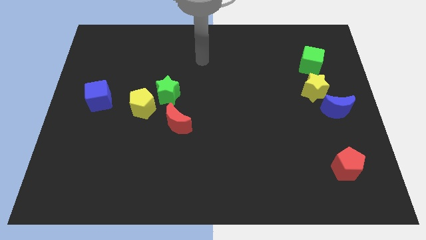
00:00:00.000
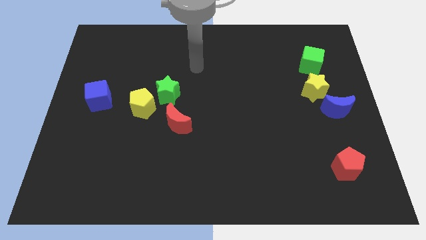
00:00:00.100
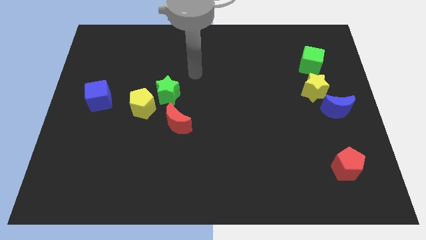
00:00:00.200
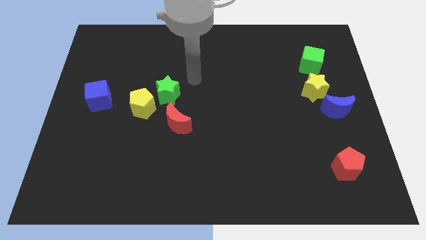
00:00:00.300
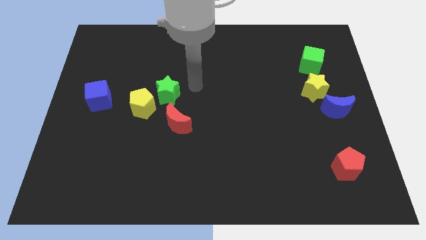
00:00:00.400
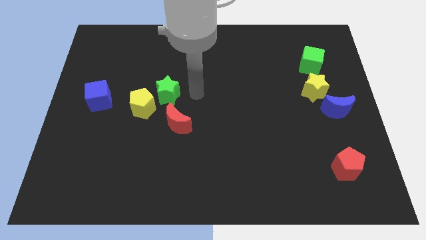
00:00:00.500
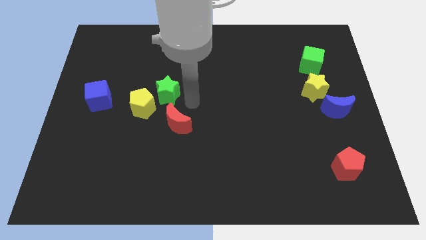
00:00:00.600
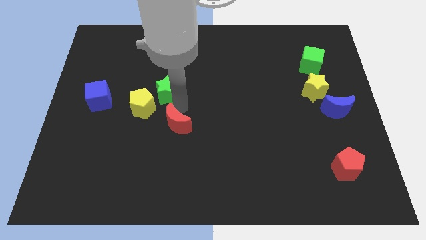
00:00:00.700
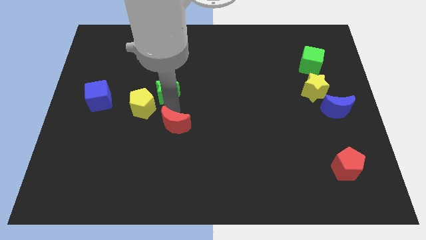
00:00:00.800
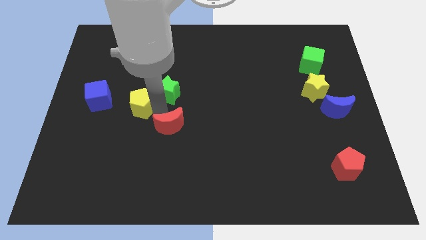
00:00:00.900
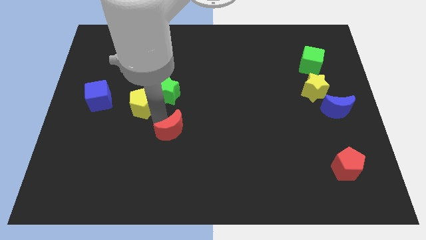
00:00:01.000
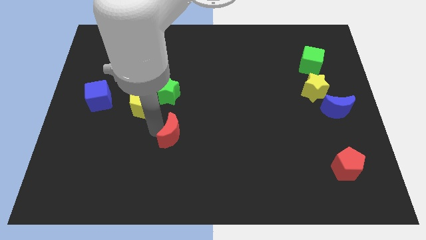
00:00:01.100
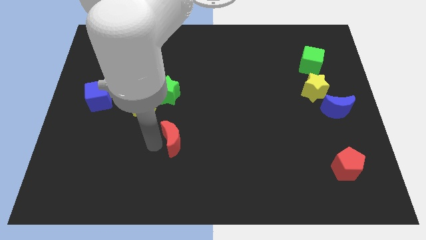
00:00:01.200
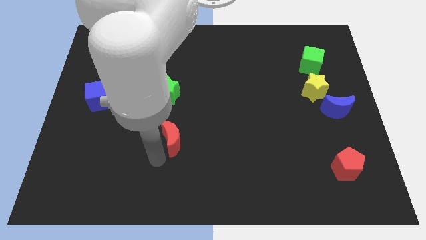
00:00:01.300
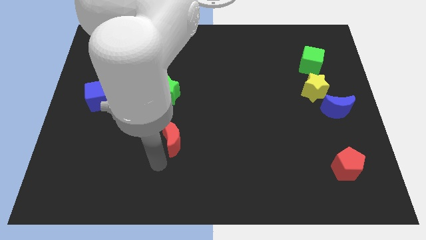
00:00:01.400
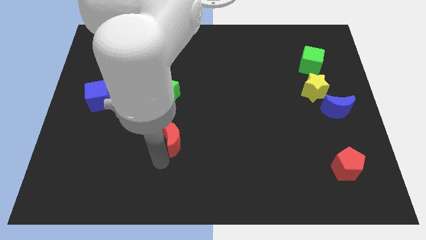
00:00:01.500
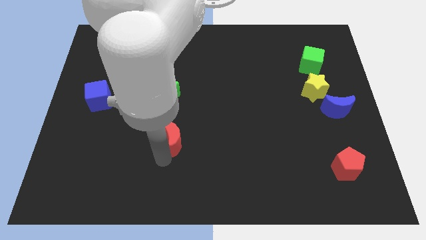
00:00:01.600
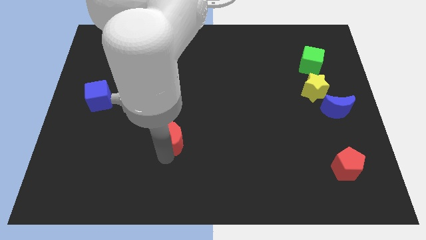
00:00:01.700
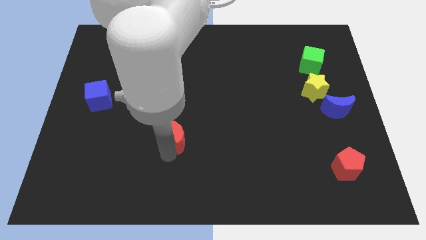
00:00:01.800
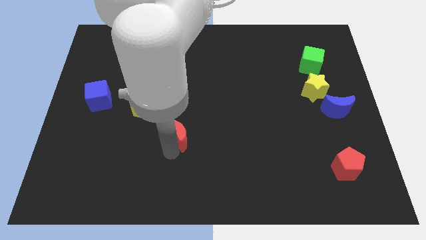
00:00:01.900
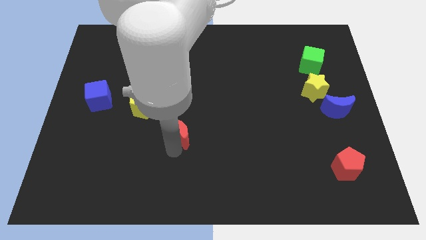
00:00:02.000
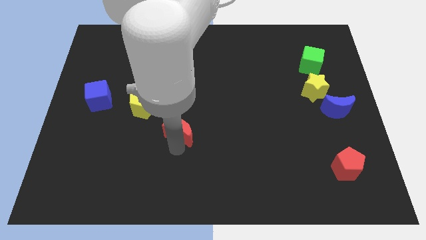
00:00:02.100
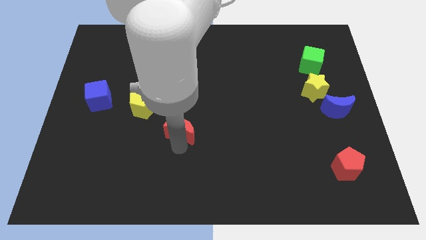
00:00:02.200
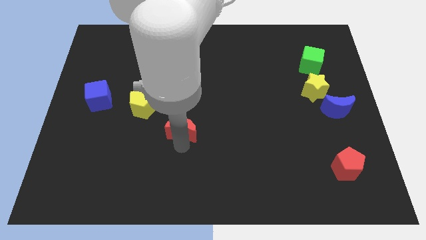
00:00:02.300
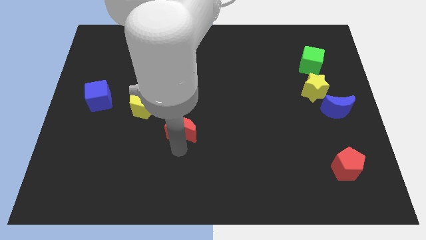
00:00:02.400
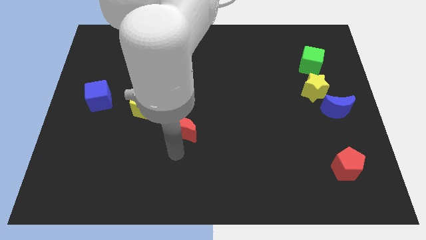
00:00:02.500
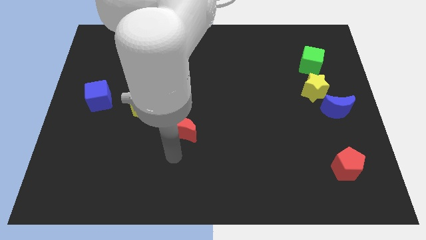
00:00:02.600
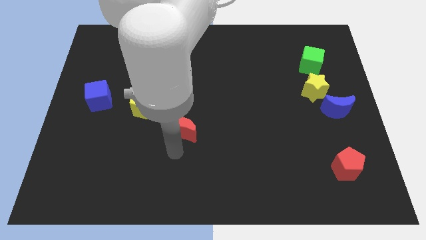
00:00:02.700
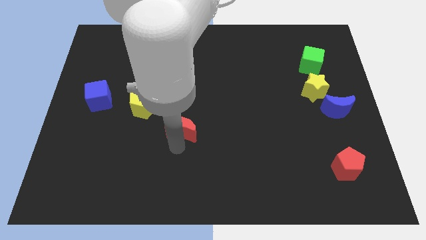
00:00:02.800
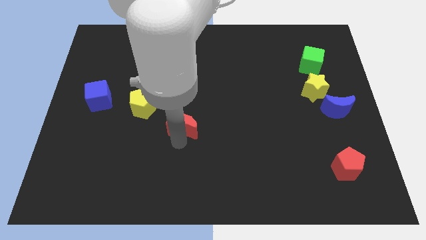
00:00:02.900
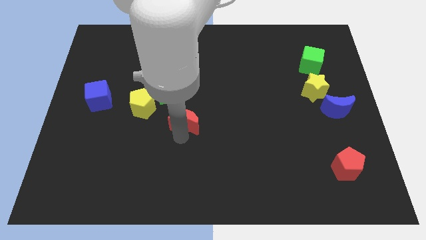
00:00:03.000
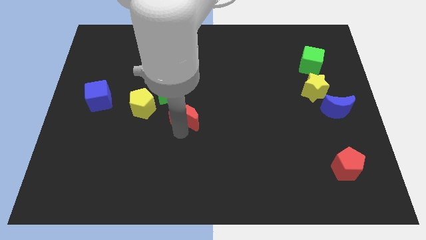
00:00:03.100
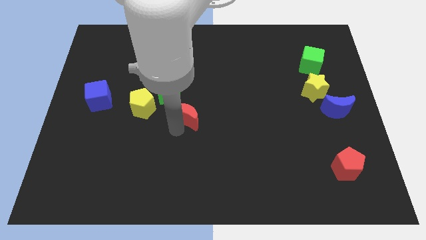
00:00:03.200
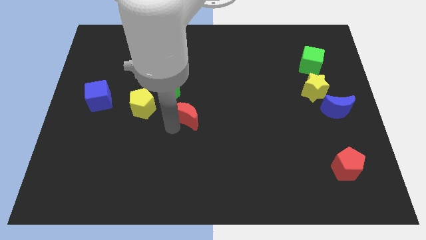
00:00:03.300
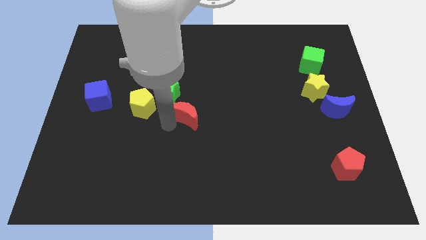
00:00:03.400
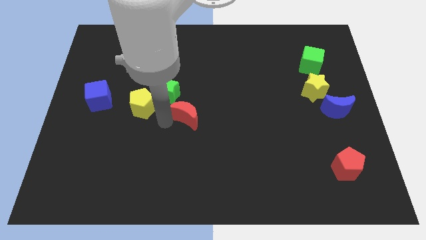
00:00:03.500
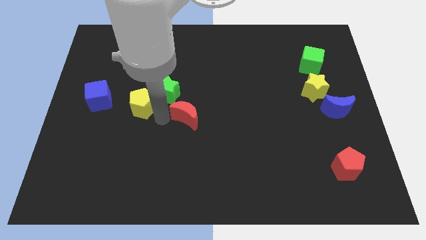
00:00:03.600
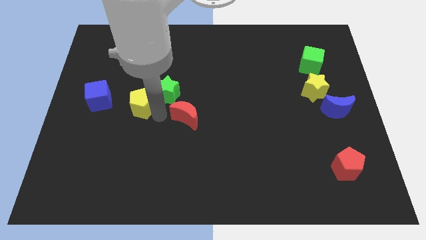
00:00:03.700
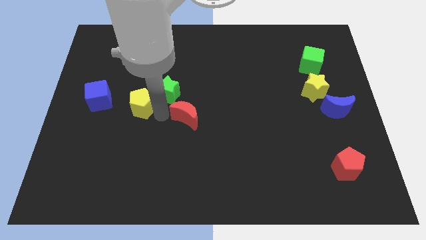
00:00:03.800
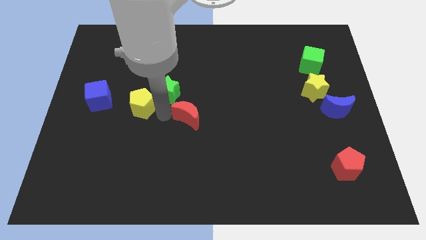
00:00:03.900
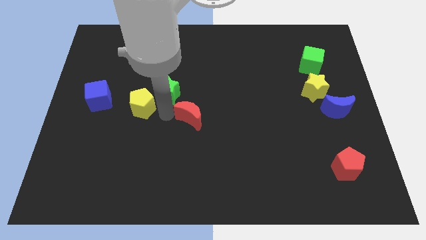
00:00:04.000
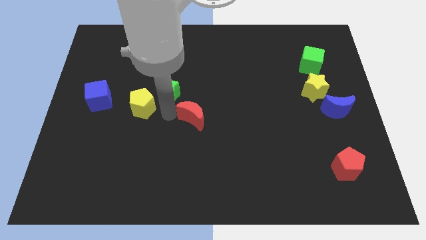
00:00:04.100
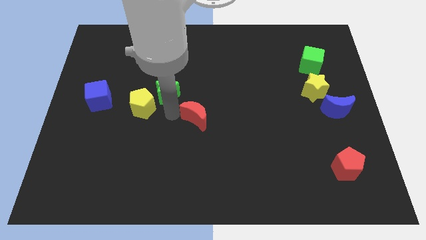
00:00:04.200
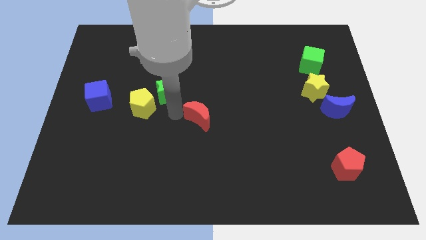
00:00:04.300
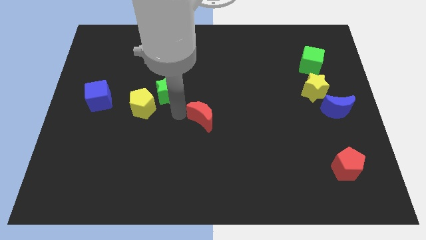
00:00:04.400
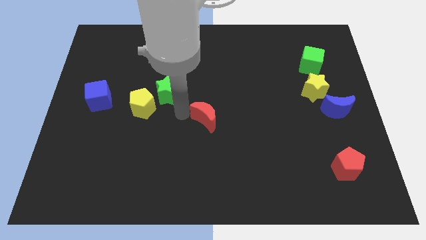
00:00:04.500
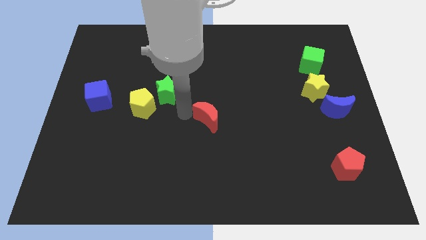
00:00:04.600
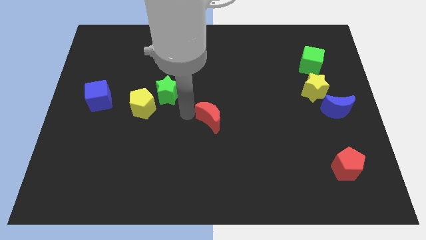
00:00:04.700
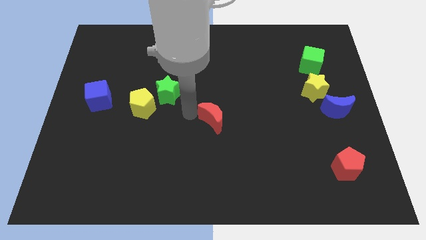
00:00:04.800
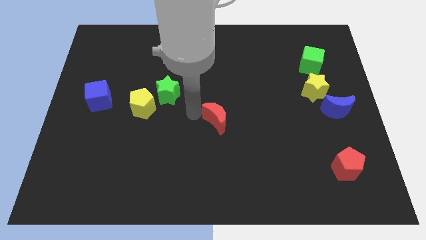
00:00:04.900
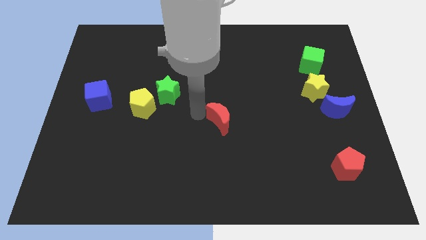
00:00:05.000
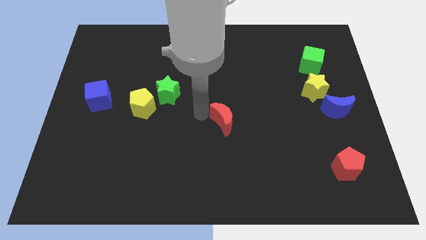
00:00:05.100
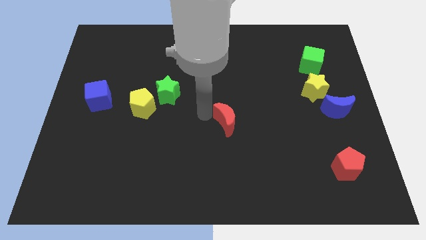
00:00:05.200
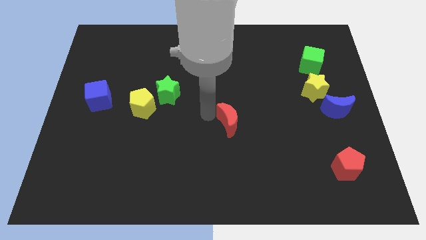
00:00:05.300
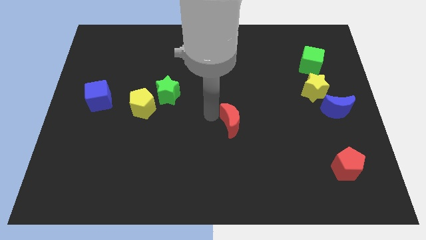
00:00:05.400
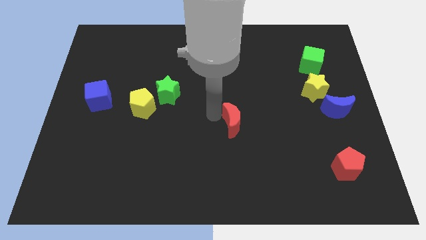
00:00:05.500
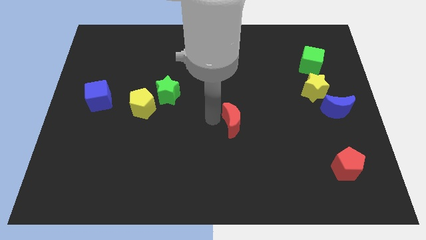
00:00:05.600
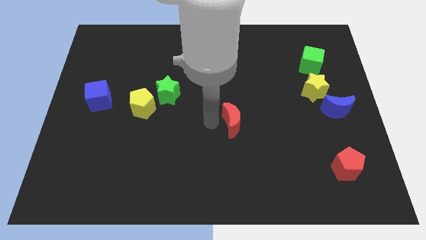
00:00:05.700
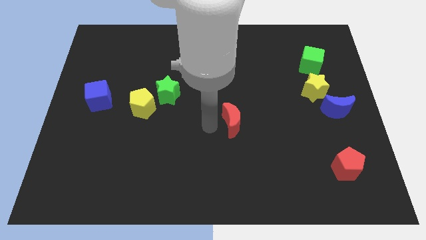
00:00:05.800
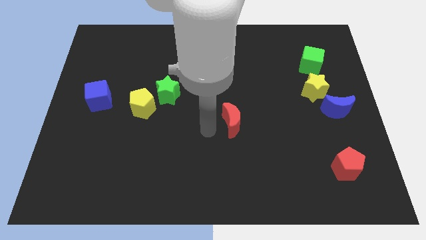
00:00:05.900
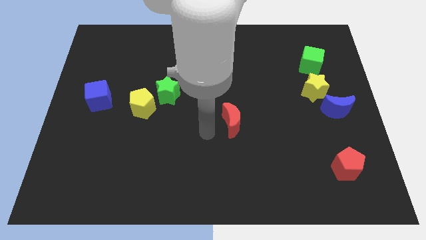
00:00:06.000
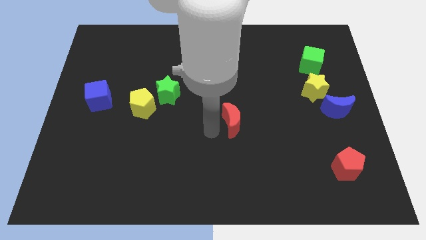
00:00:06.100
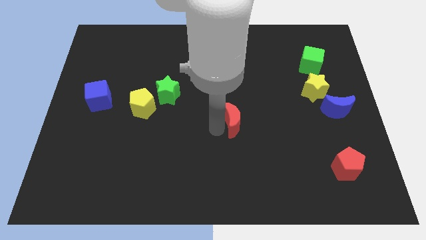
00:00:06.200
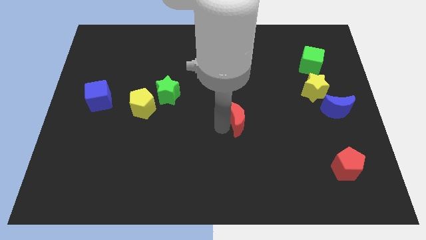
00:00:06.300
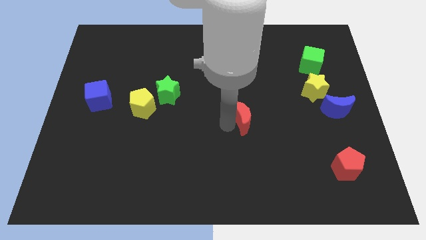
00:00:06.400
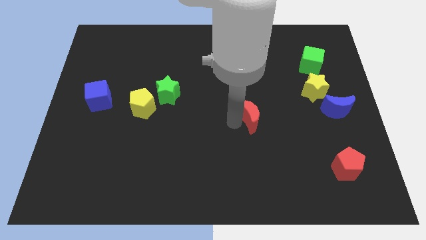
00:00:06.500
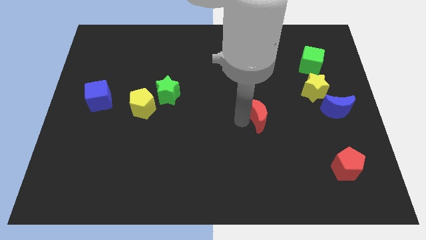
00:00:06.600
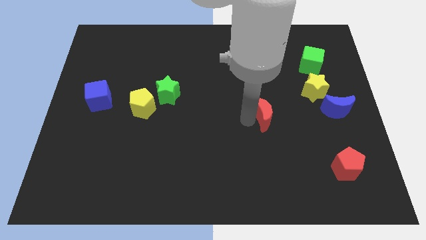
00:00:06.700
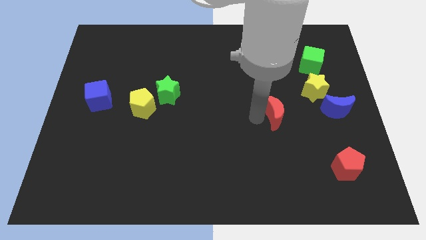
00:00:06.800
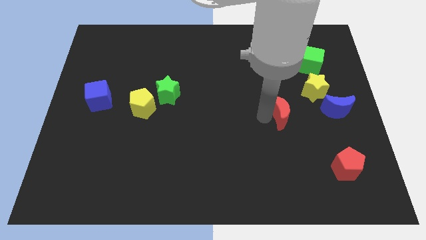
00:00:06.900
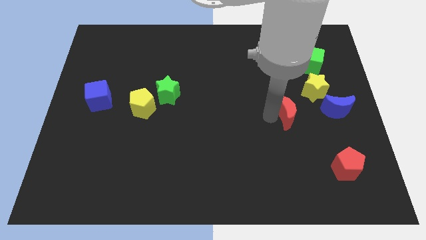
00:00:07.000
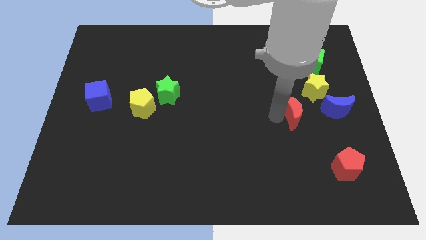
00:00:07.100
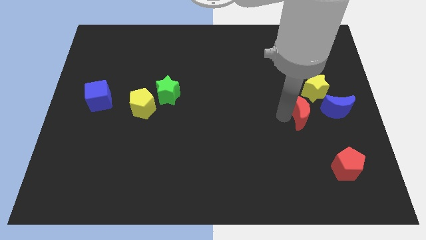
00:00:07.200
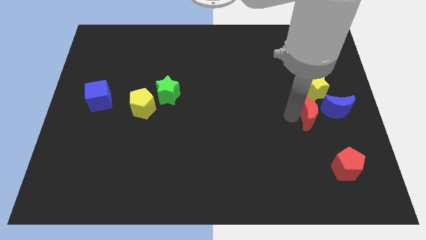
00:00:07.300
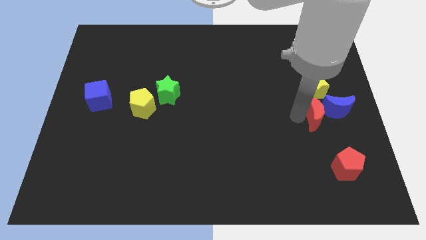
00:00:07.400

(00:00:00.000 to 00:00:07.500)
slide the red moon close to the blue moon
